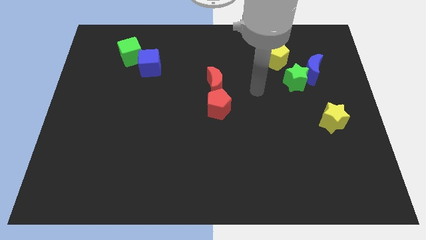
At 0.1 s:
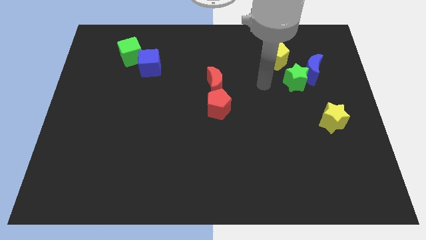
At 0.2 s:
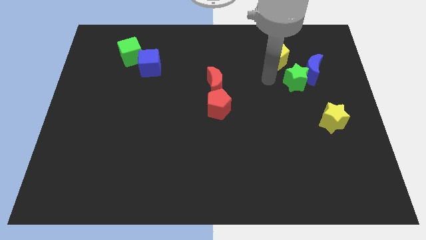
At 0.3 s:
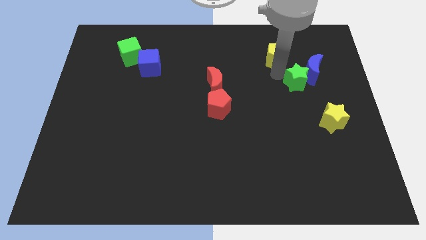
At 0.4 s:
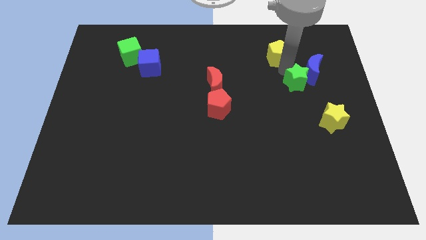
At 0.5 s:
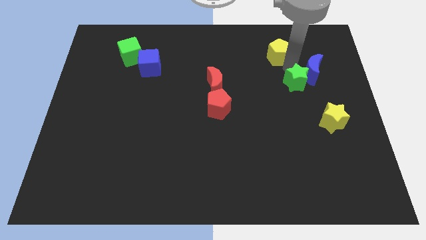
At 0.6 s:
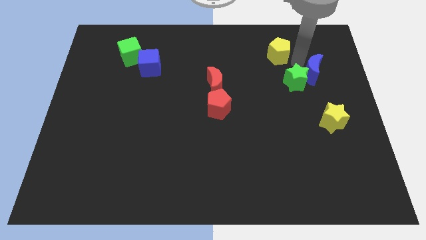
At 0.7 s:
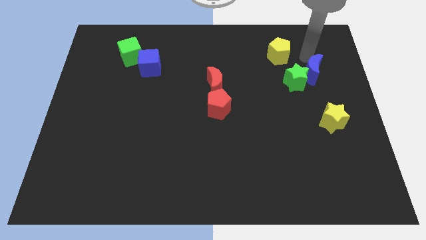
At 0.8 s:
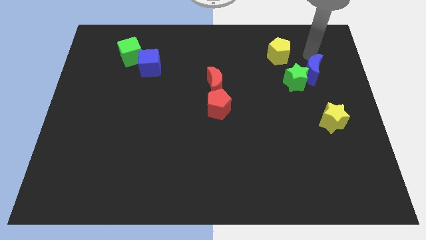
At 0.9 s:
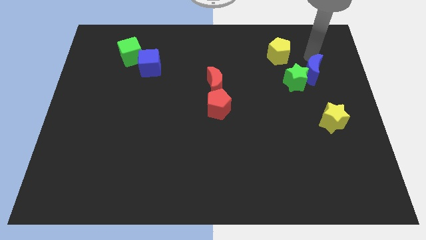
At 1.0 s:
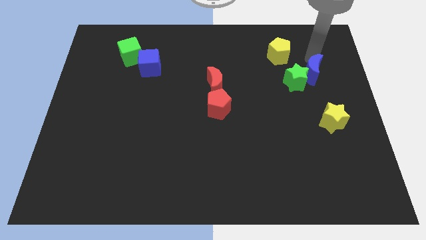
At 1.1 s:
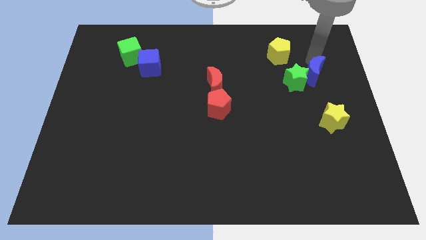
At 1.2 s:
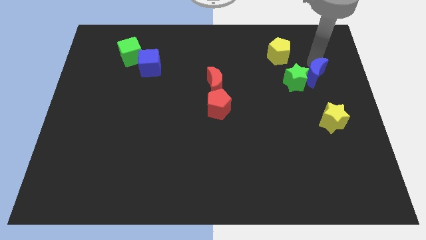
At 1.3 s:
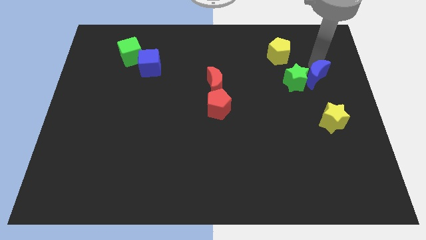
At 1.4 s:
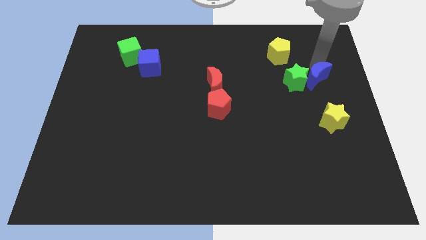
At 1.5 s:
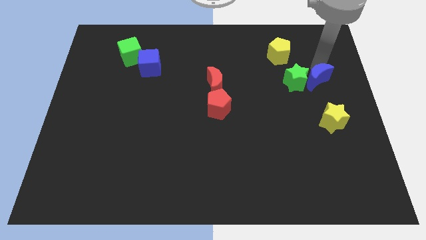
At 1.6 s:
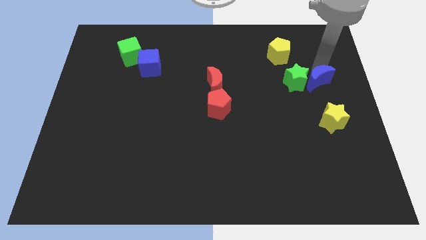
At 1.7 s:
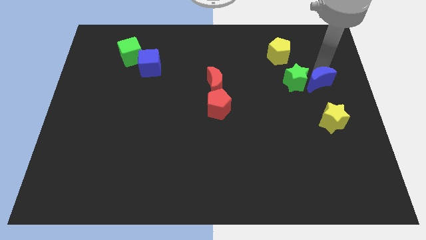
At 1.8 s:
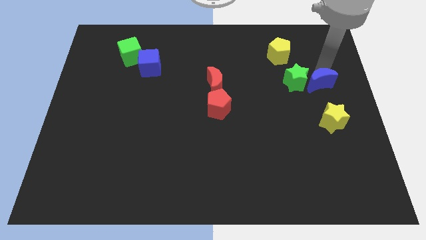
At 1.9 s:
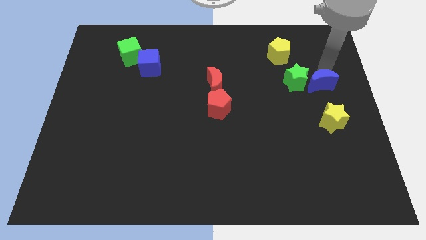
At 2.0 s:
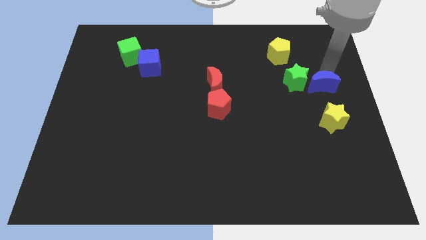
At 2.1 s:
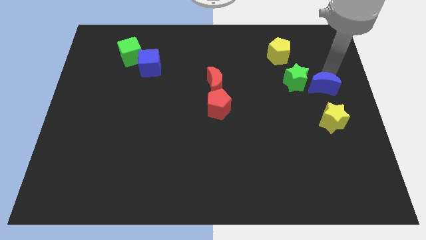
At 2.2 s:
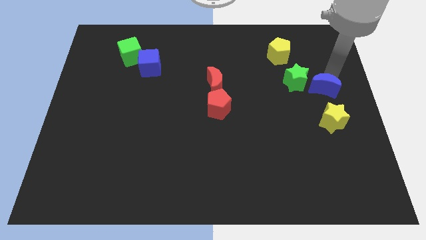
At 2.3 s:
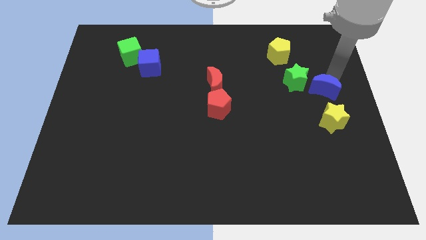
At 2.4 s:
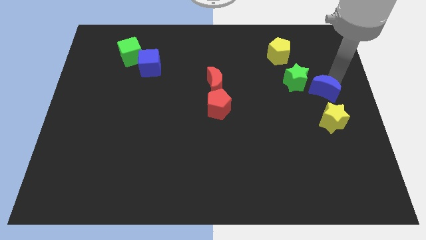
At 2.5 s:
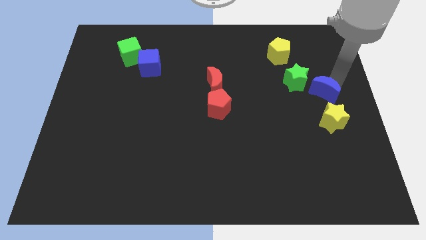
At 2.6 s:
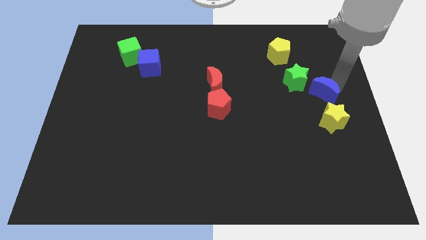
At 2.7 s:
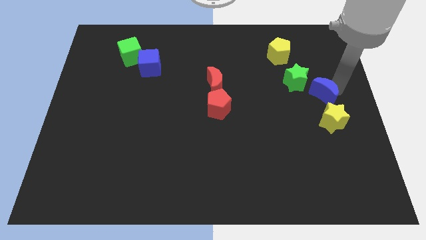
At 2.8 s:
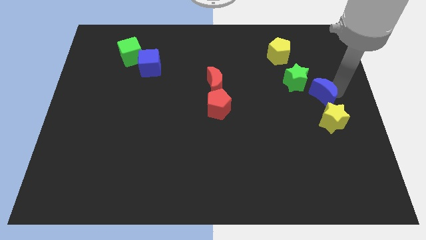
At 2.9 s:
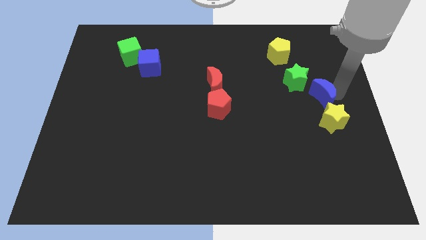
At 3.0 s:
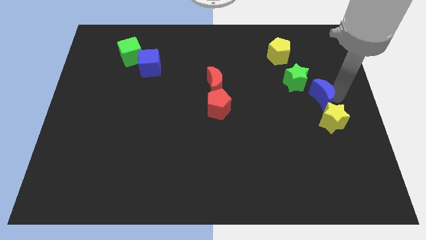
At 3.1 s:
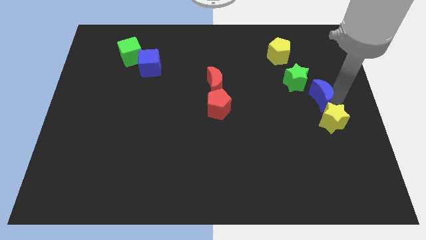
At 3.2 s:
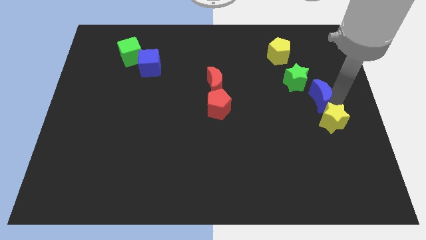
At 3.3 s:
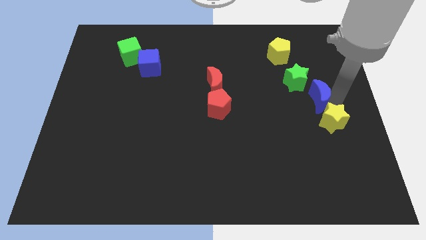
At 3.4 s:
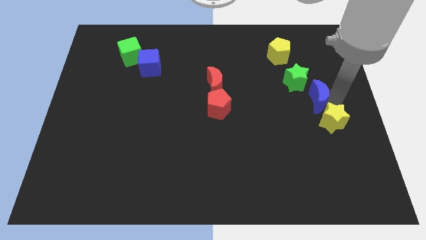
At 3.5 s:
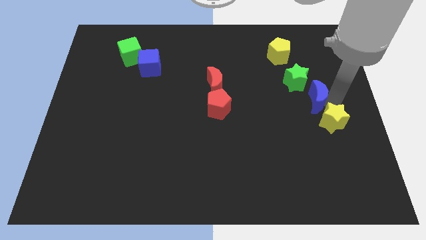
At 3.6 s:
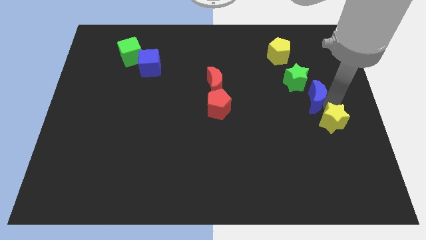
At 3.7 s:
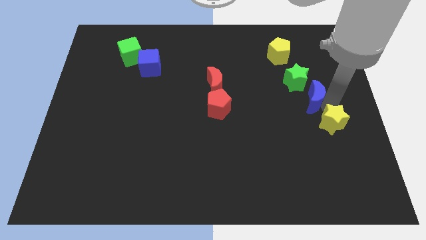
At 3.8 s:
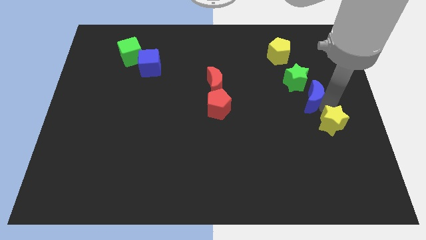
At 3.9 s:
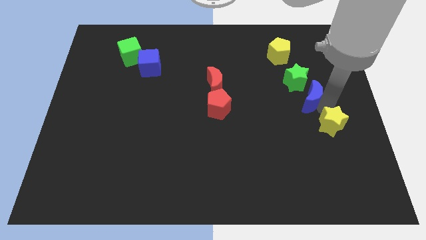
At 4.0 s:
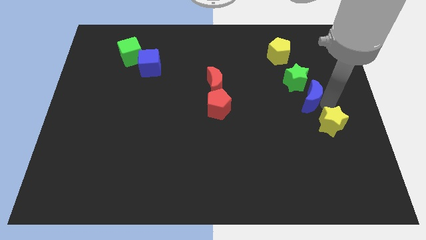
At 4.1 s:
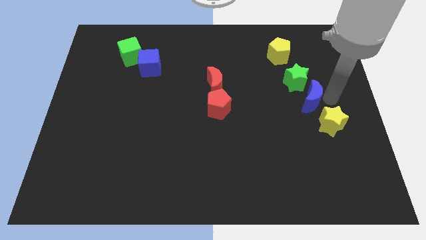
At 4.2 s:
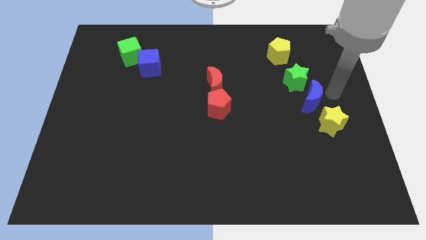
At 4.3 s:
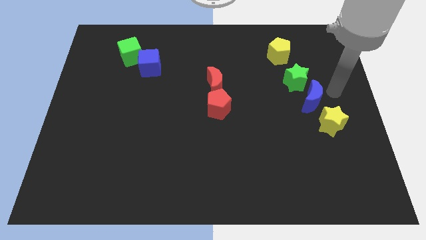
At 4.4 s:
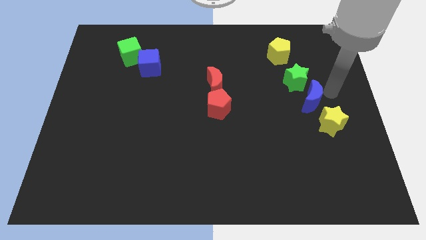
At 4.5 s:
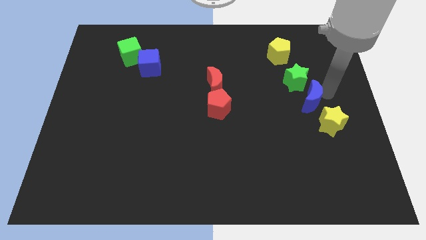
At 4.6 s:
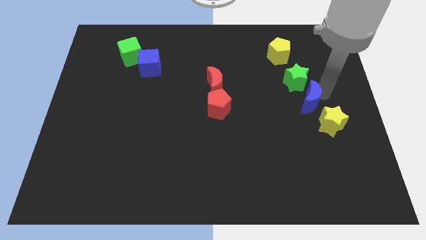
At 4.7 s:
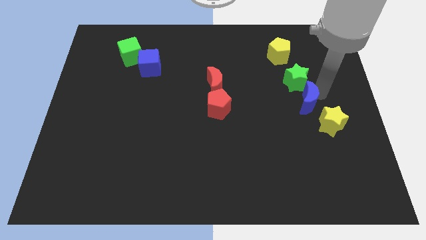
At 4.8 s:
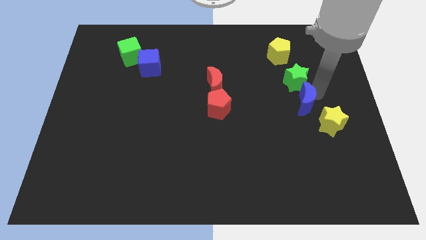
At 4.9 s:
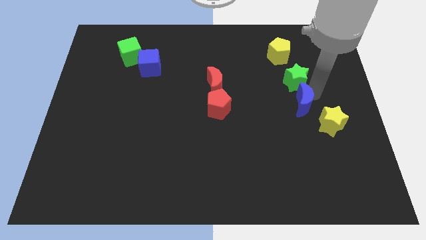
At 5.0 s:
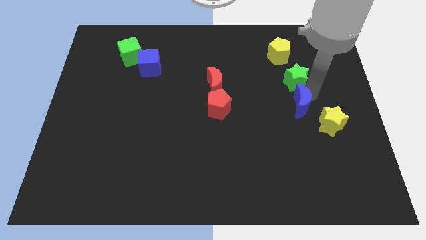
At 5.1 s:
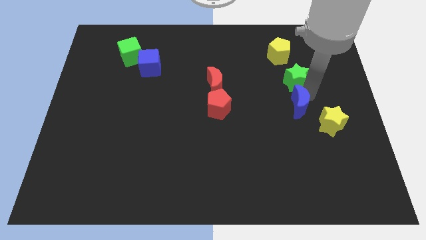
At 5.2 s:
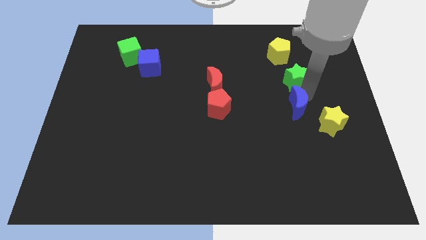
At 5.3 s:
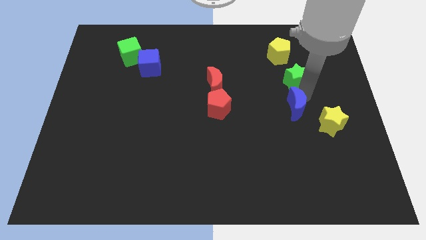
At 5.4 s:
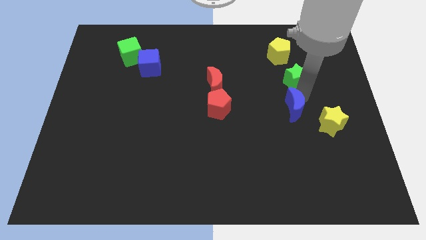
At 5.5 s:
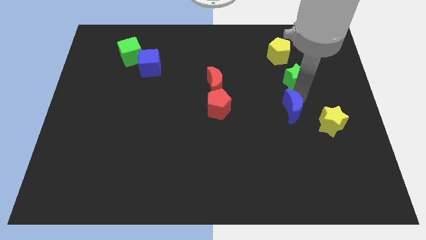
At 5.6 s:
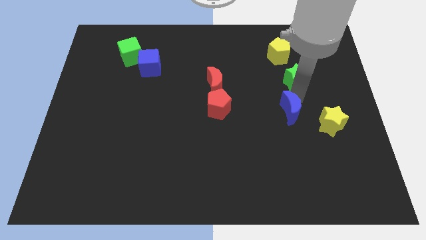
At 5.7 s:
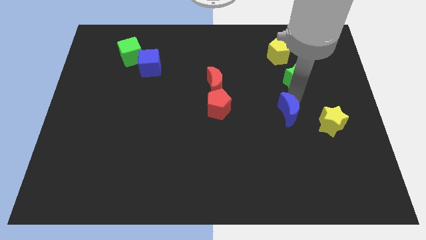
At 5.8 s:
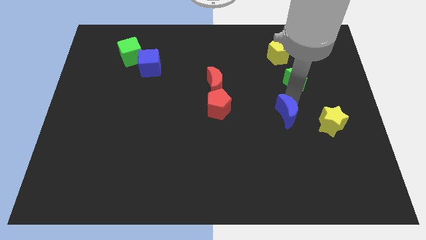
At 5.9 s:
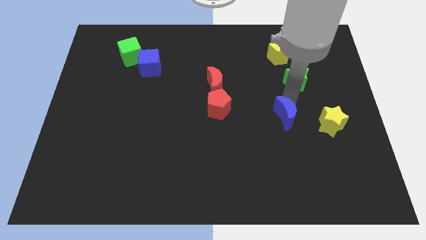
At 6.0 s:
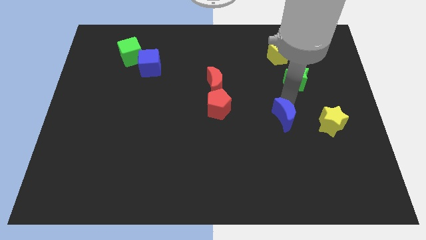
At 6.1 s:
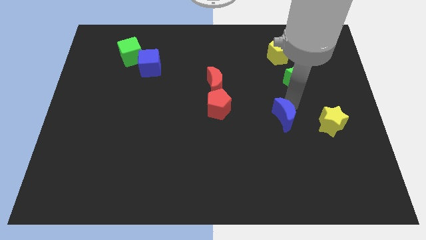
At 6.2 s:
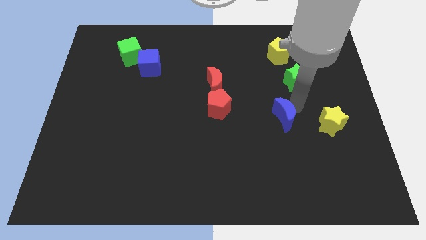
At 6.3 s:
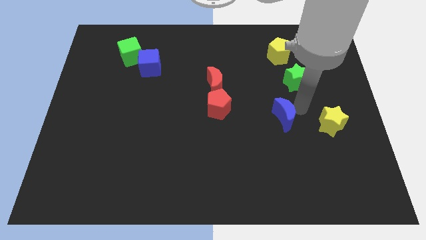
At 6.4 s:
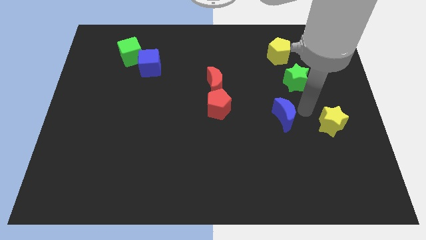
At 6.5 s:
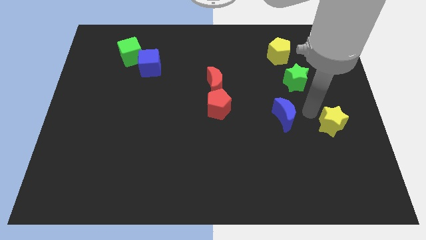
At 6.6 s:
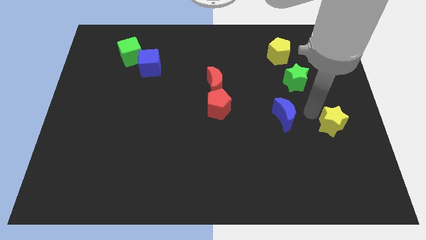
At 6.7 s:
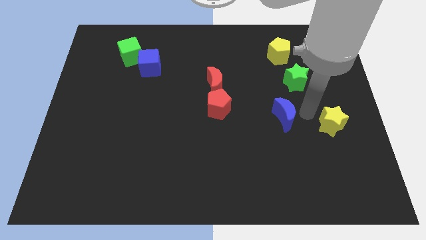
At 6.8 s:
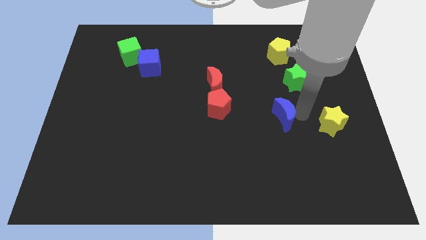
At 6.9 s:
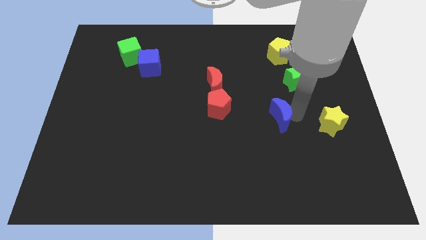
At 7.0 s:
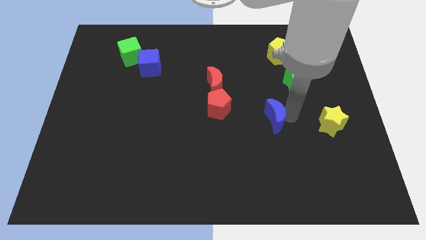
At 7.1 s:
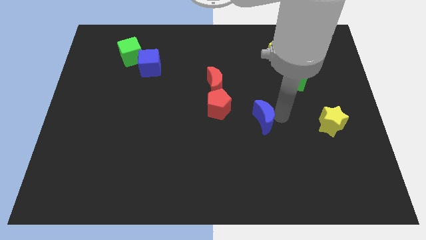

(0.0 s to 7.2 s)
push the blue moon down and to the left diagonally

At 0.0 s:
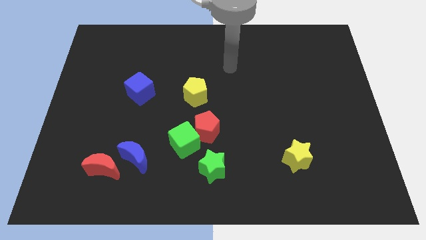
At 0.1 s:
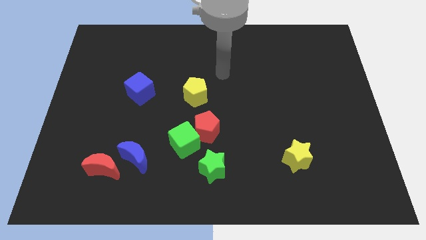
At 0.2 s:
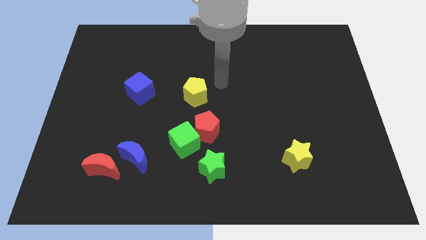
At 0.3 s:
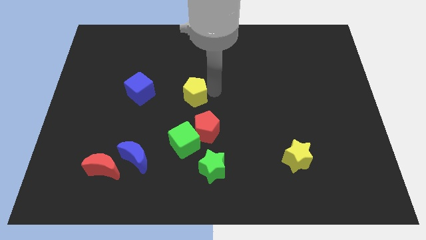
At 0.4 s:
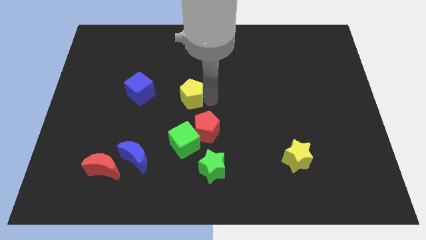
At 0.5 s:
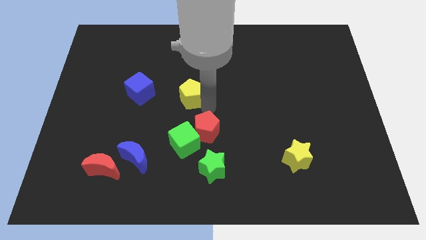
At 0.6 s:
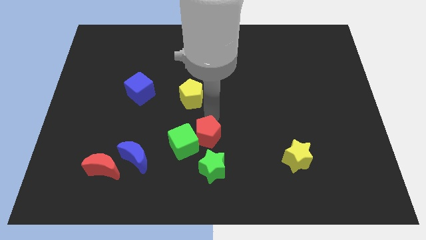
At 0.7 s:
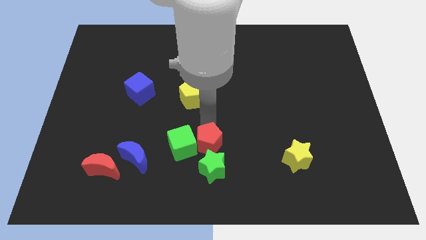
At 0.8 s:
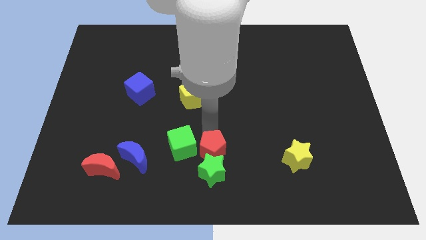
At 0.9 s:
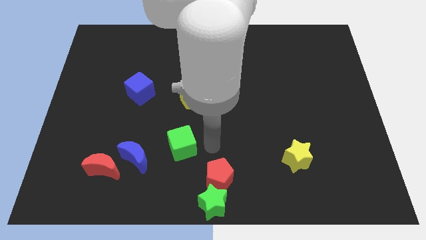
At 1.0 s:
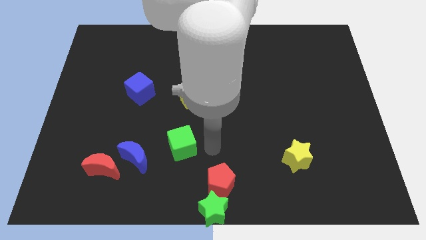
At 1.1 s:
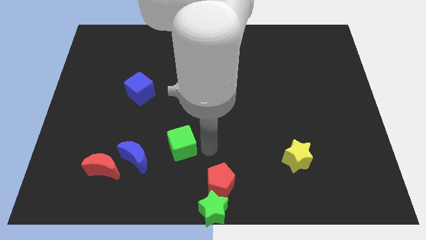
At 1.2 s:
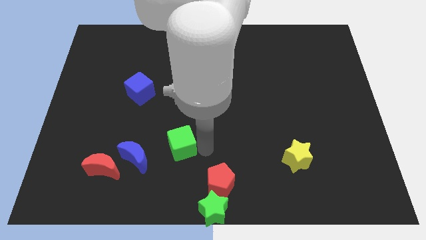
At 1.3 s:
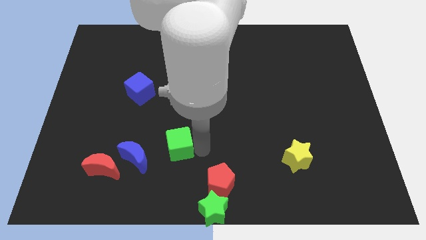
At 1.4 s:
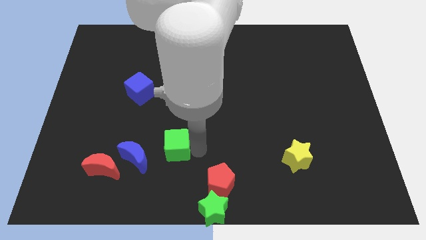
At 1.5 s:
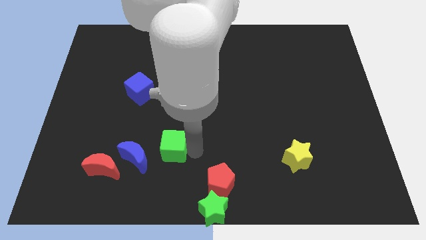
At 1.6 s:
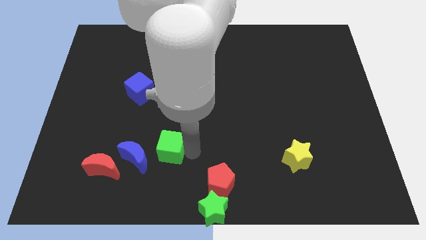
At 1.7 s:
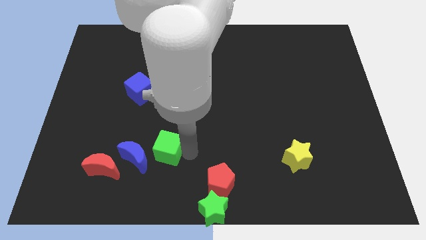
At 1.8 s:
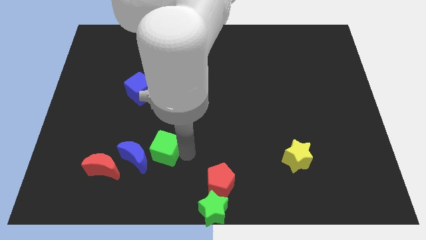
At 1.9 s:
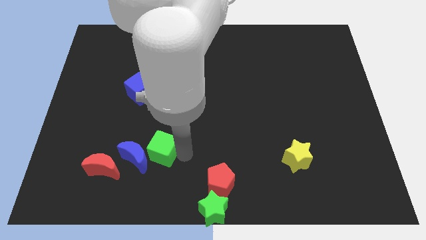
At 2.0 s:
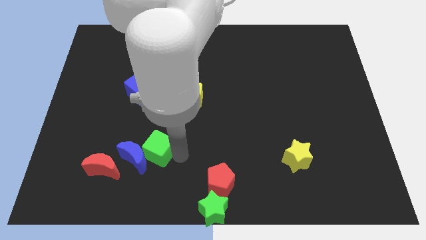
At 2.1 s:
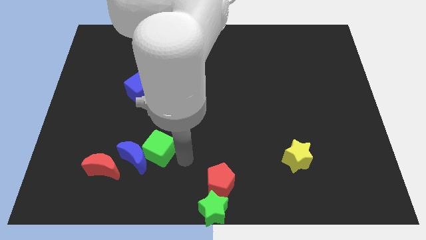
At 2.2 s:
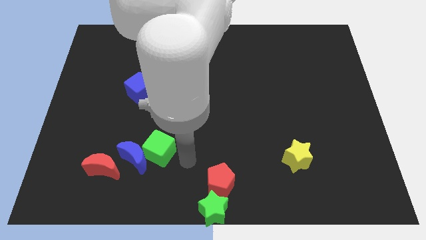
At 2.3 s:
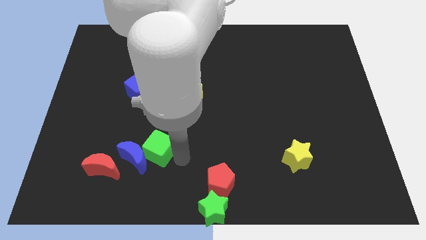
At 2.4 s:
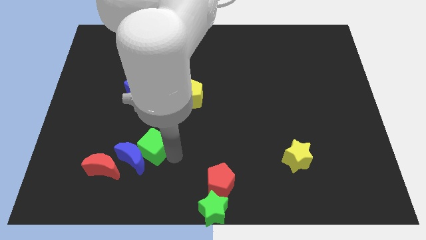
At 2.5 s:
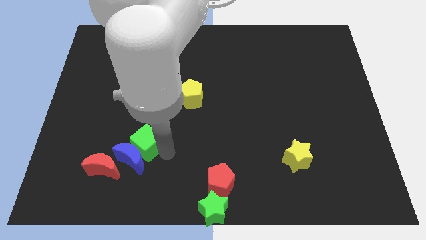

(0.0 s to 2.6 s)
push the green cube left slightly
